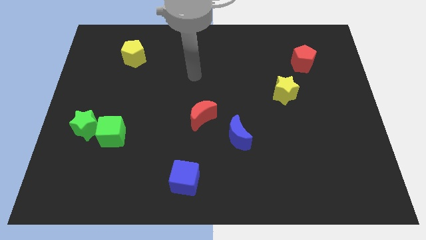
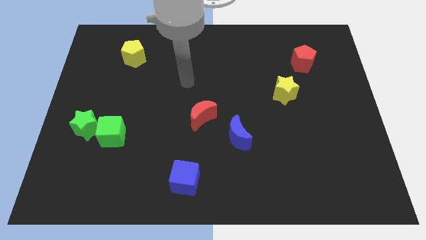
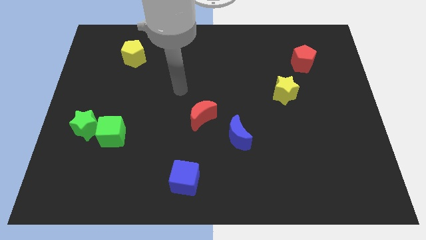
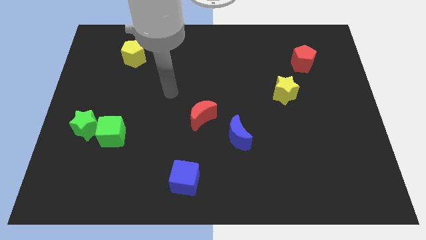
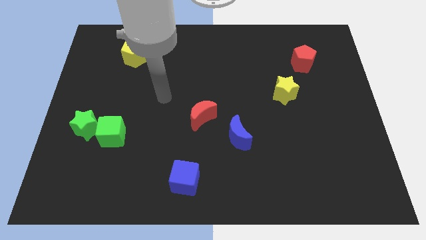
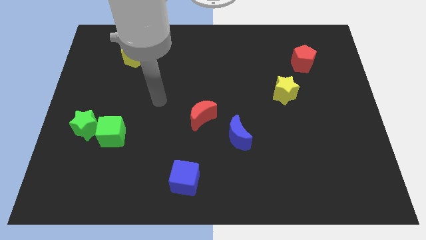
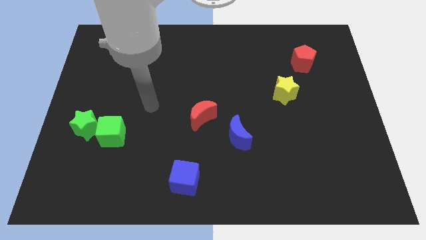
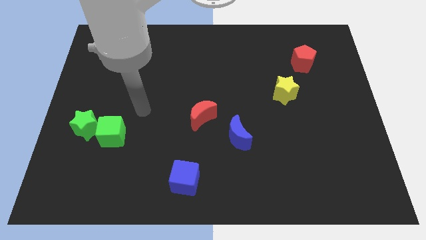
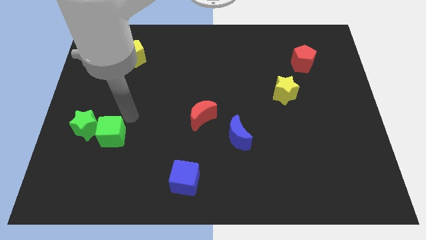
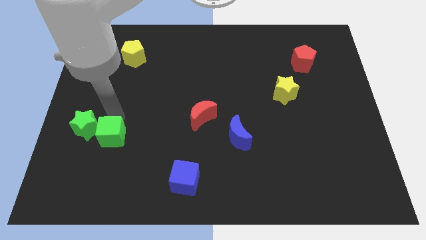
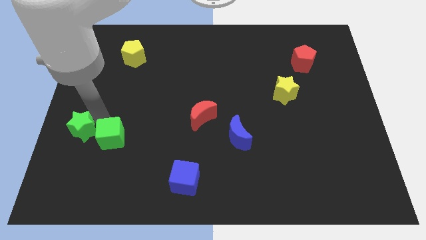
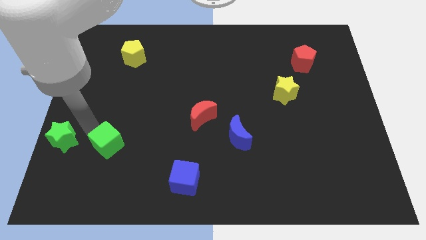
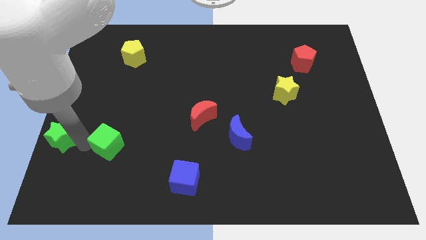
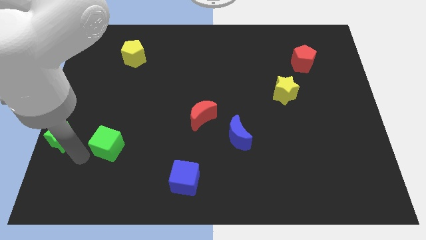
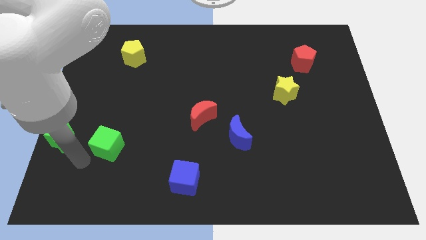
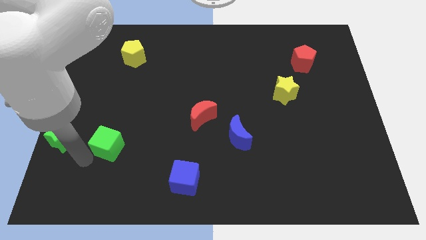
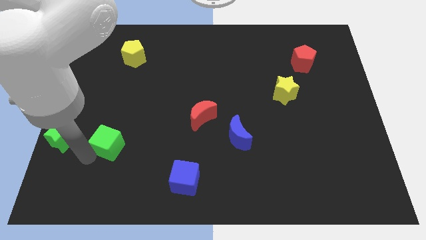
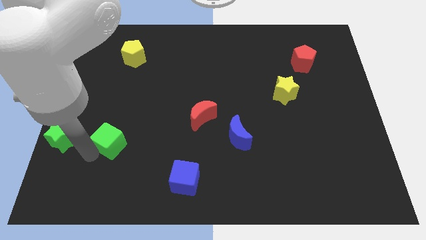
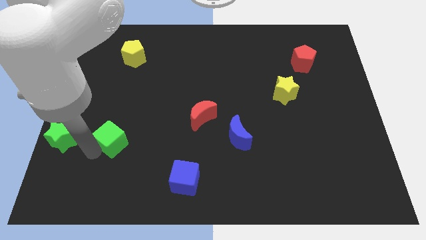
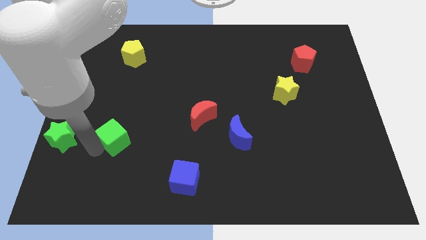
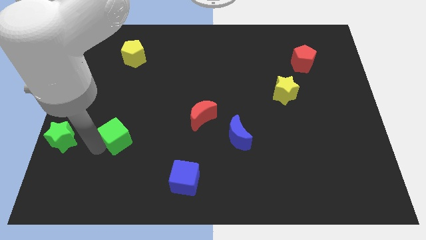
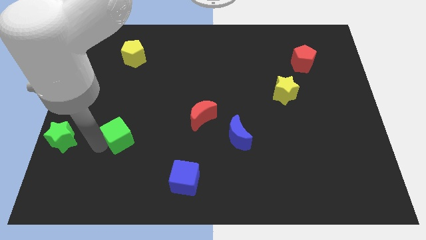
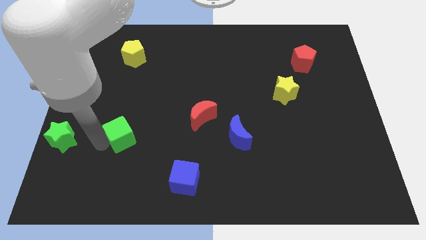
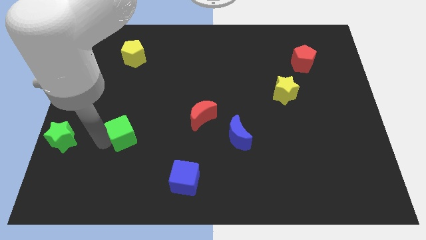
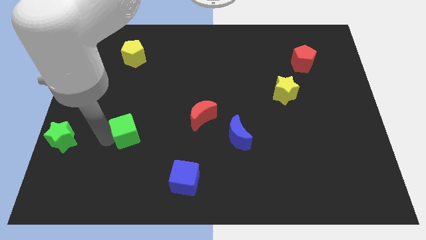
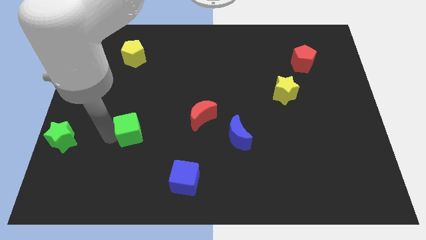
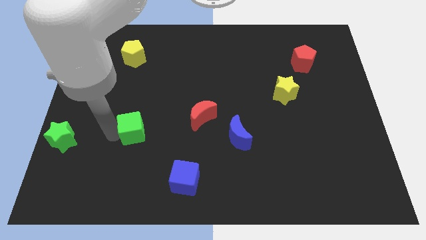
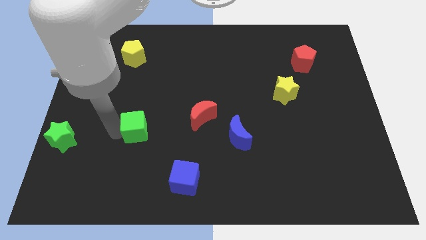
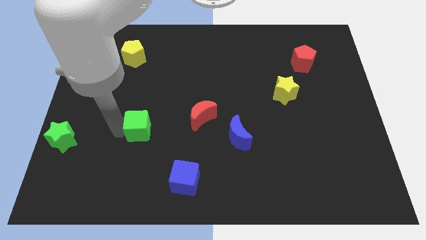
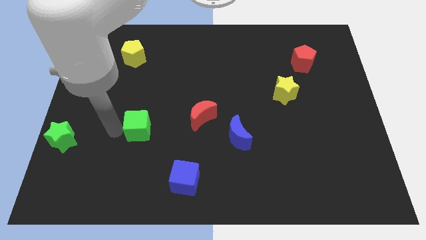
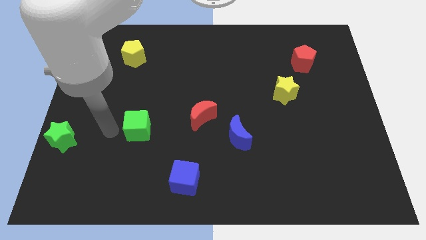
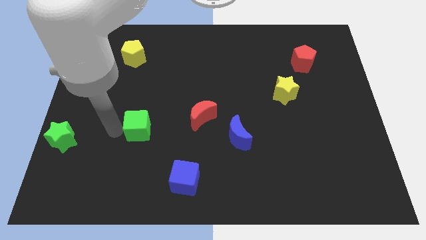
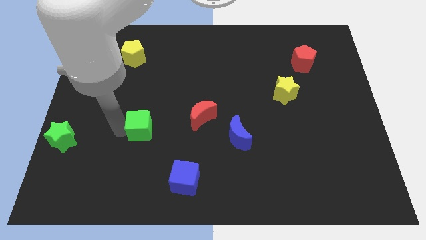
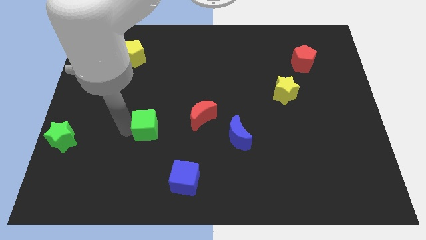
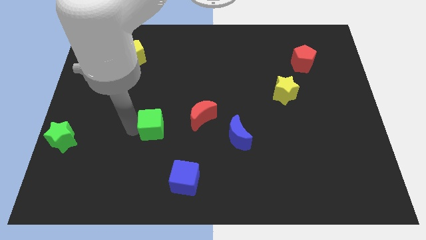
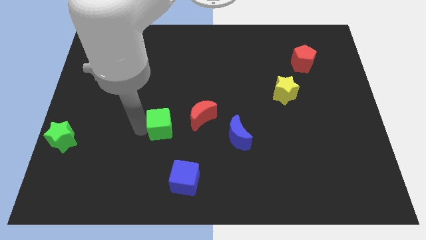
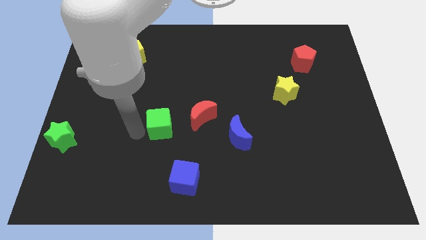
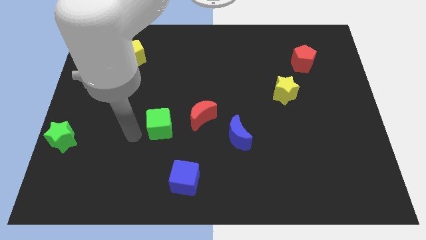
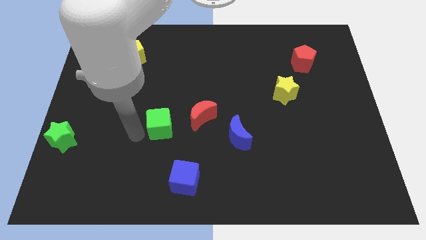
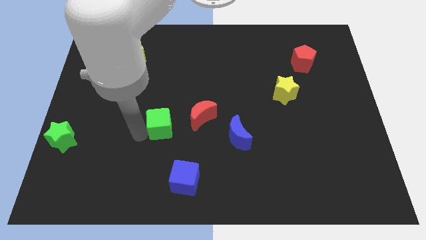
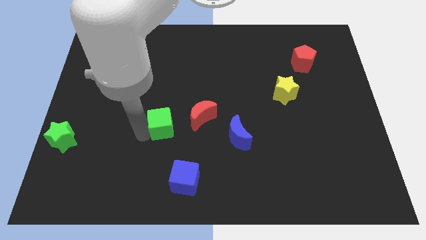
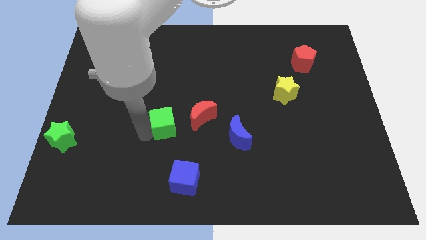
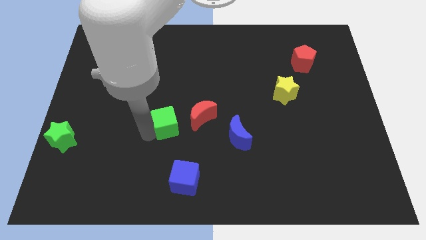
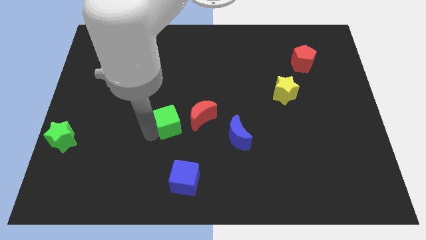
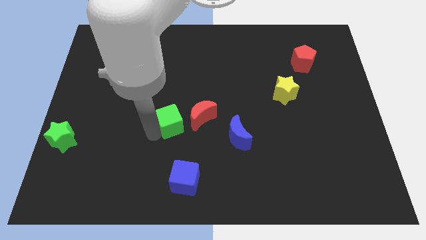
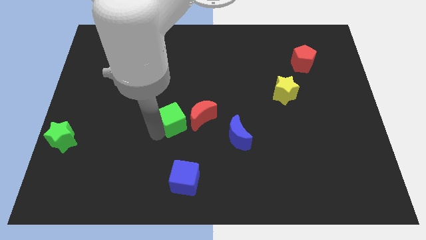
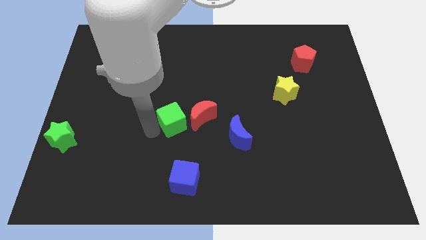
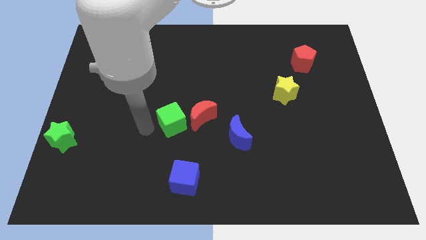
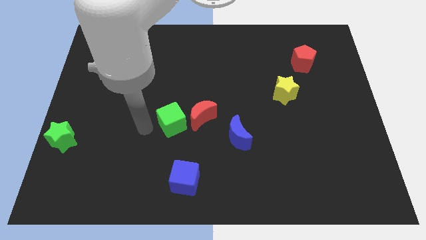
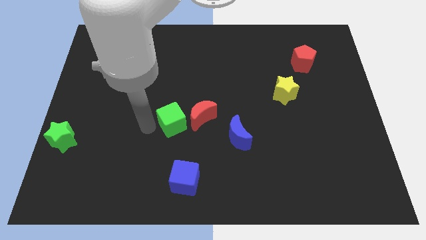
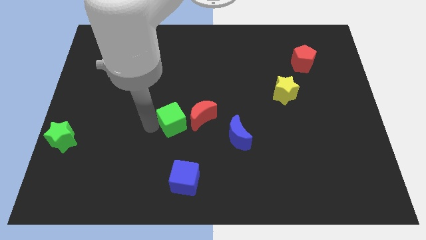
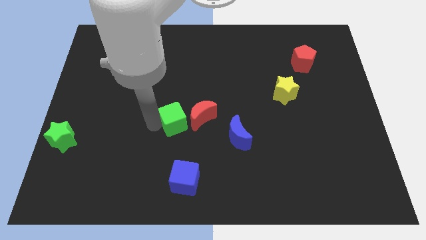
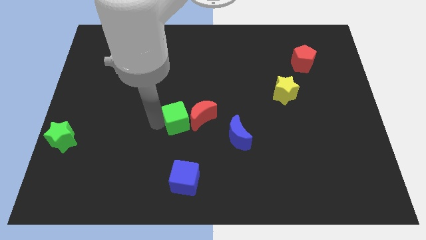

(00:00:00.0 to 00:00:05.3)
push the green cube next to the red moon

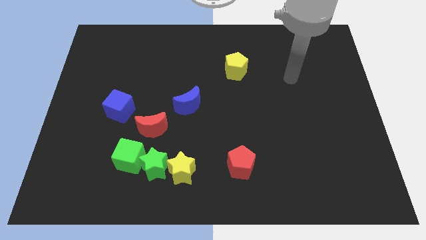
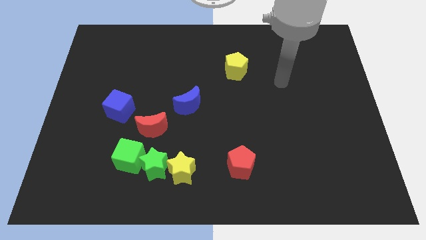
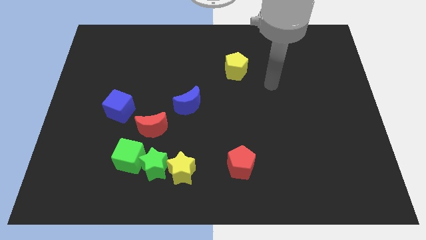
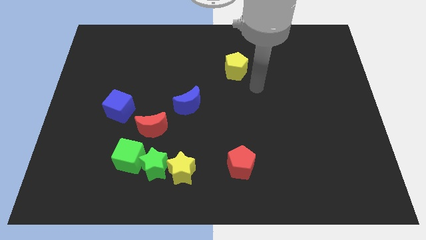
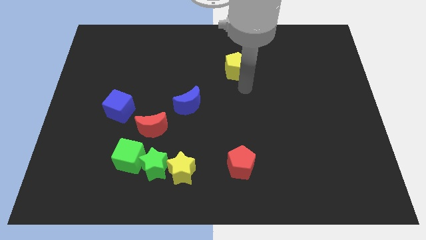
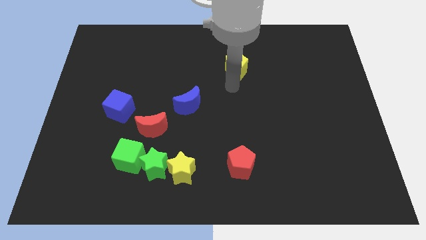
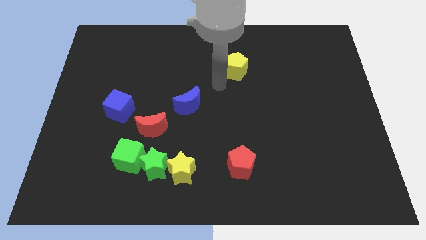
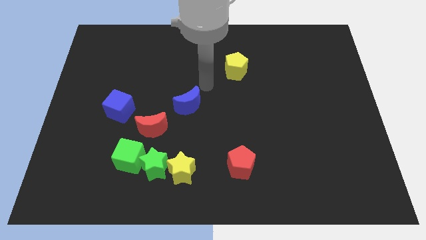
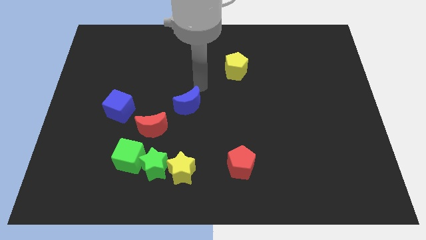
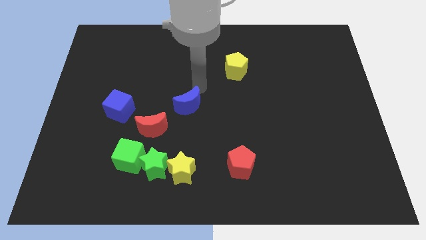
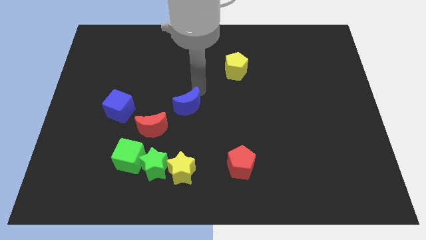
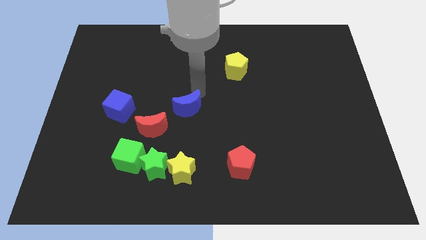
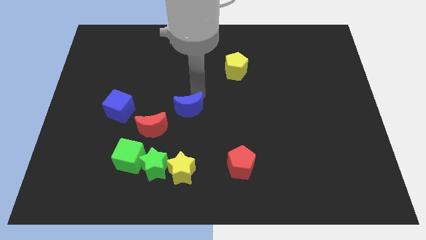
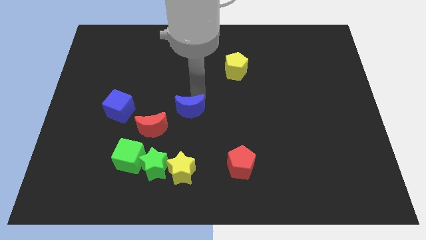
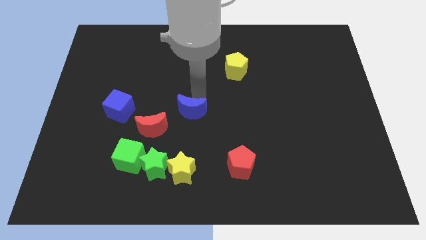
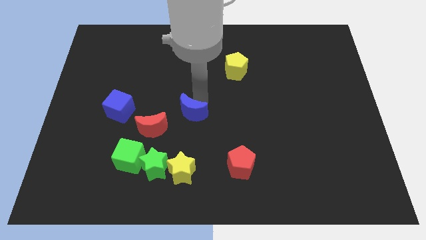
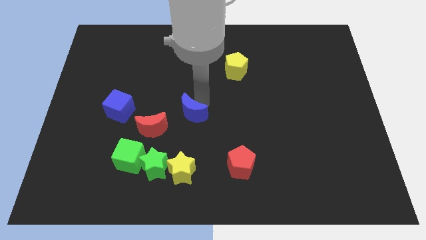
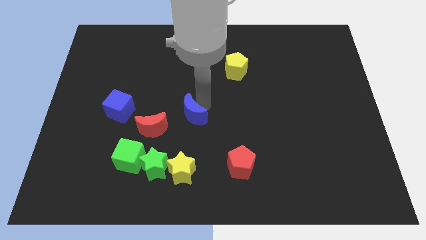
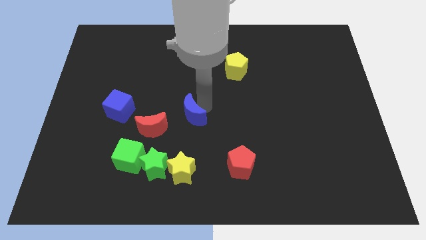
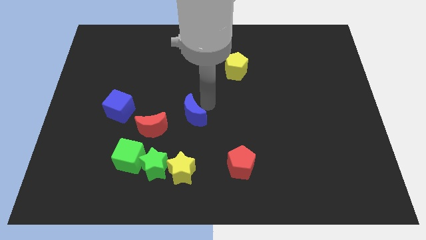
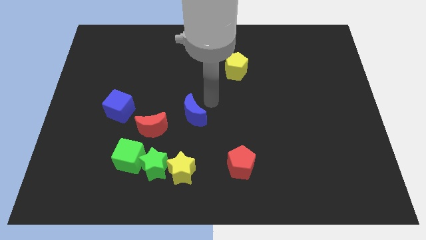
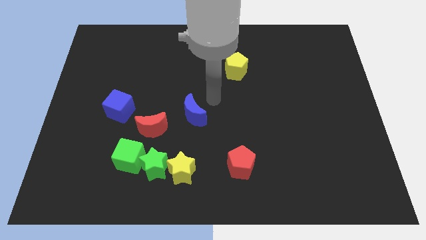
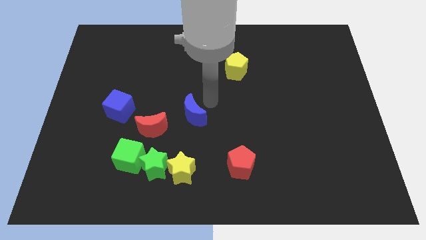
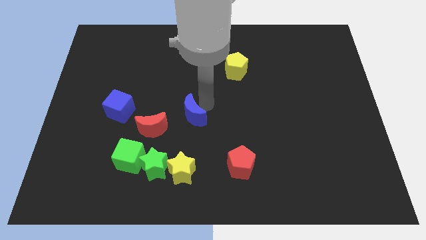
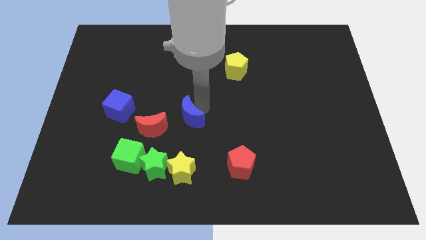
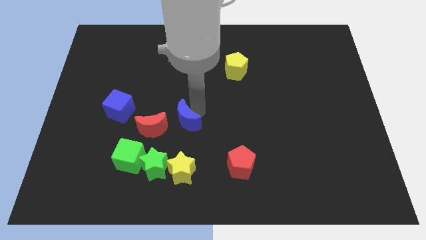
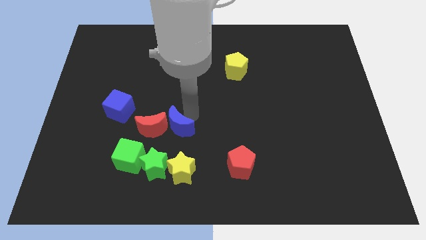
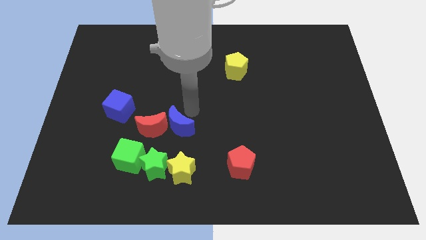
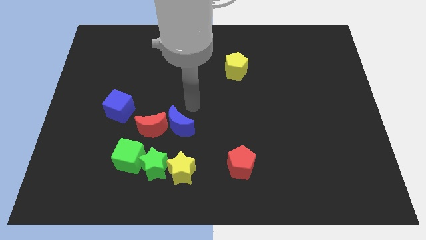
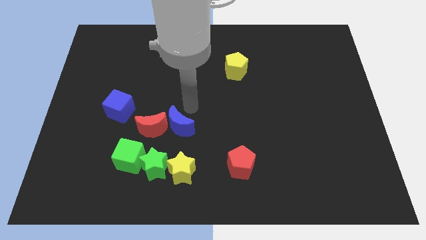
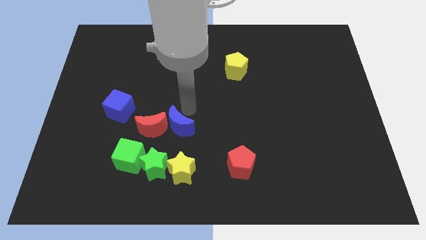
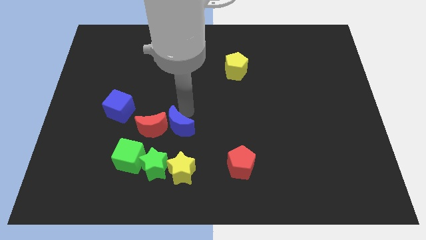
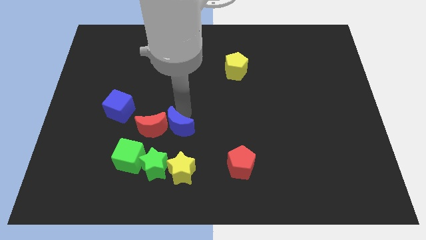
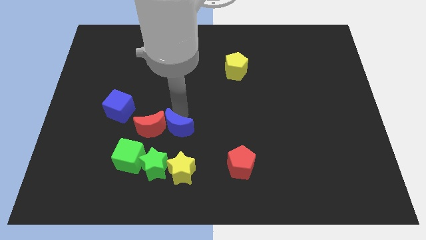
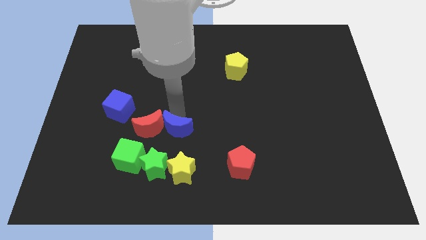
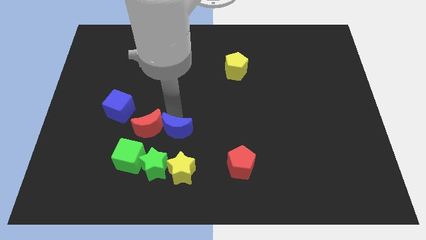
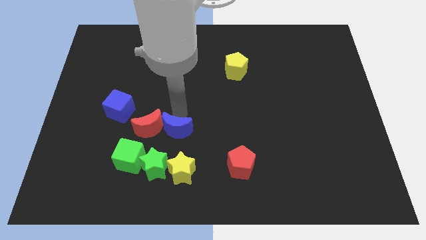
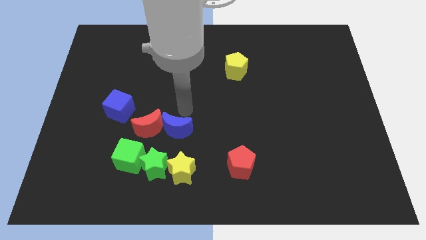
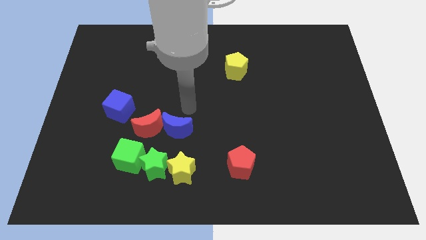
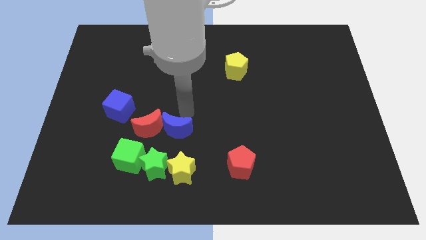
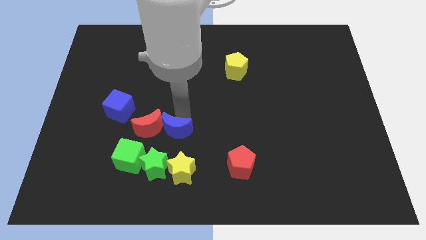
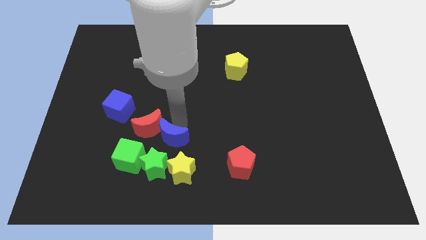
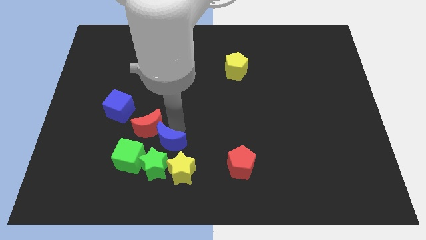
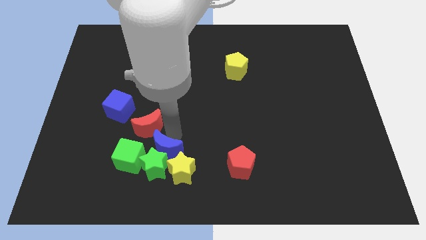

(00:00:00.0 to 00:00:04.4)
put the blue moon close to the green star
